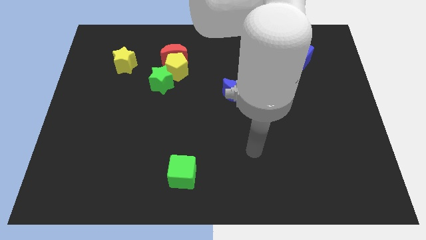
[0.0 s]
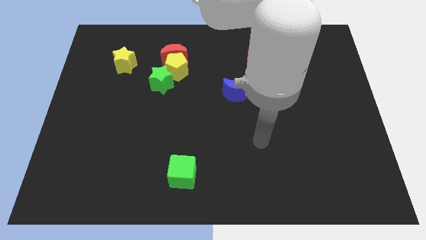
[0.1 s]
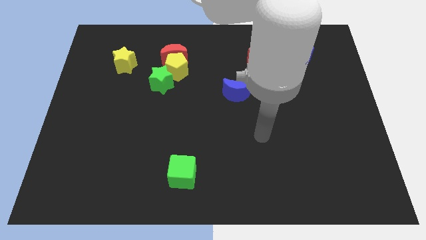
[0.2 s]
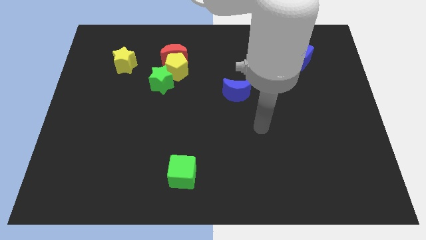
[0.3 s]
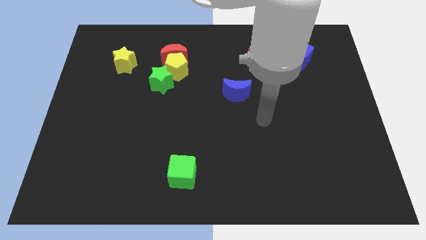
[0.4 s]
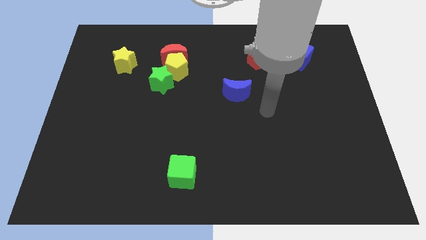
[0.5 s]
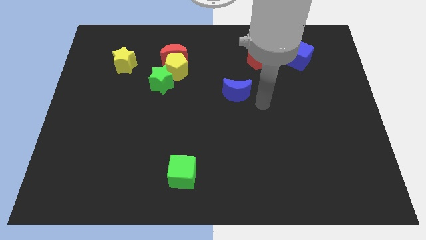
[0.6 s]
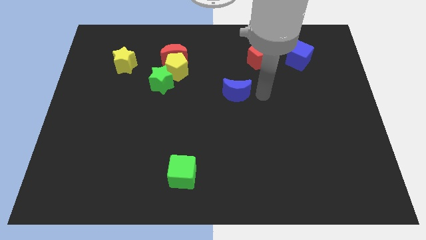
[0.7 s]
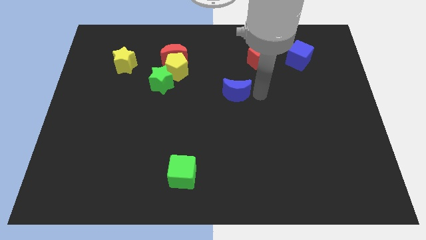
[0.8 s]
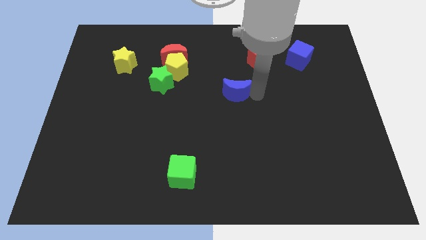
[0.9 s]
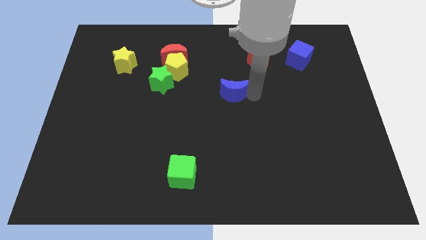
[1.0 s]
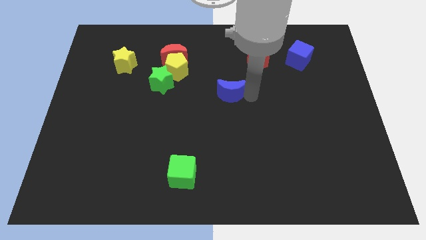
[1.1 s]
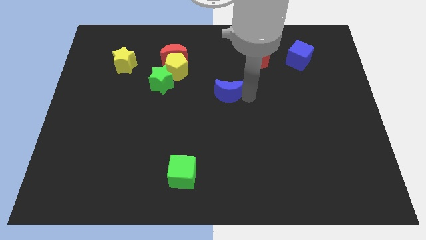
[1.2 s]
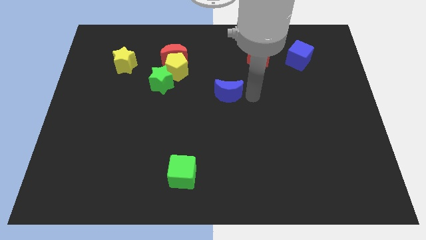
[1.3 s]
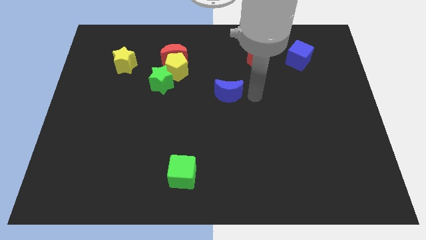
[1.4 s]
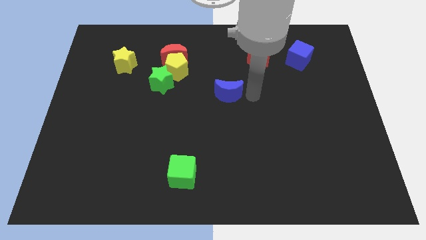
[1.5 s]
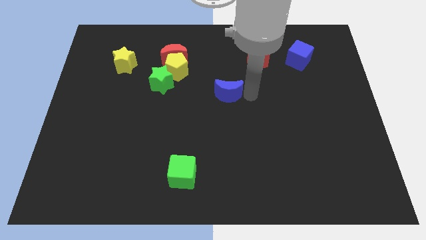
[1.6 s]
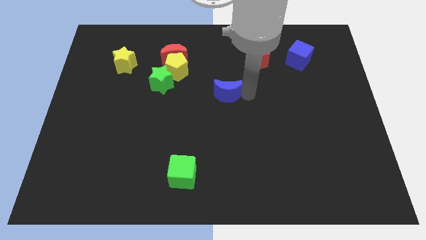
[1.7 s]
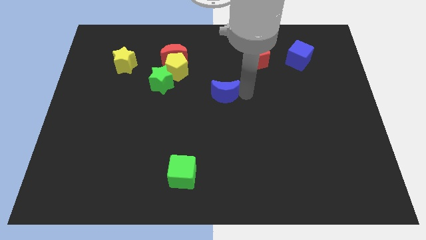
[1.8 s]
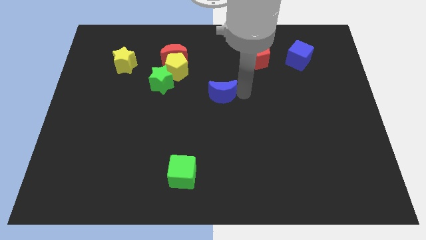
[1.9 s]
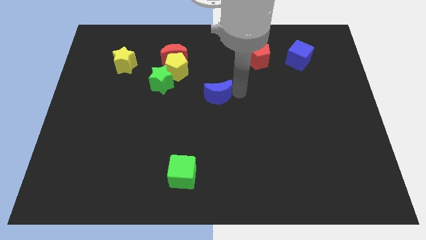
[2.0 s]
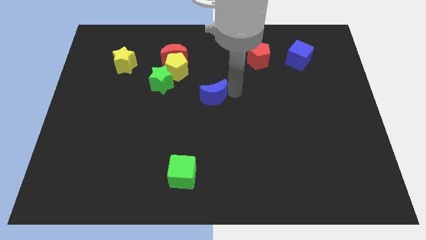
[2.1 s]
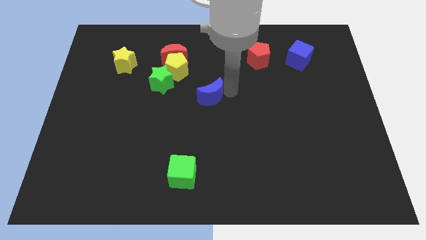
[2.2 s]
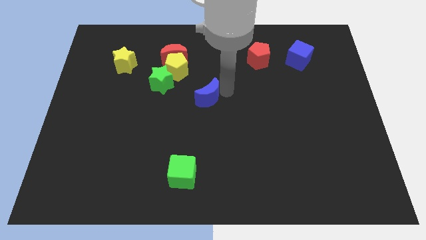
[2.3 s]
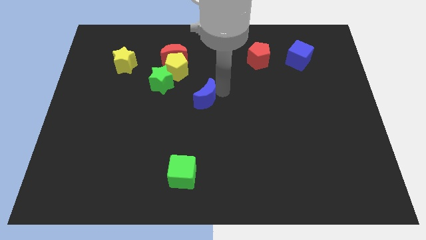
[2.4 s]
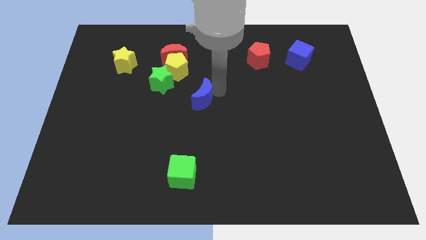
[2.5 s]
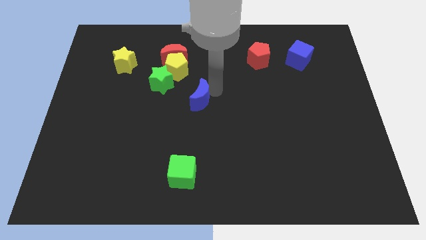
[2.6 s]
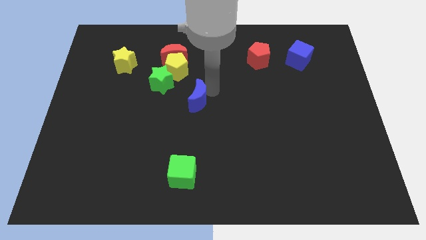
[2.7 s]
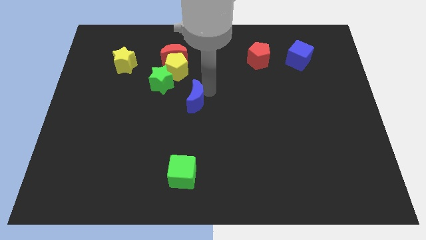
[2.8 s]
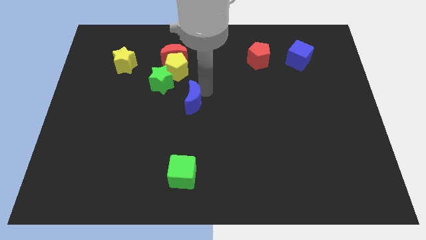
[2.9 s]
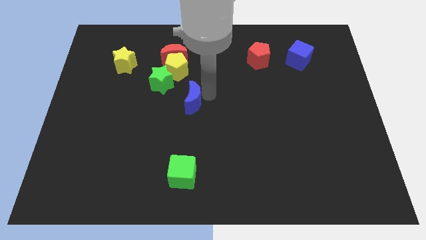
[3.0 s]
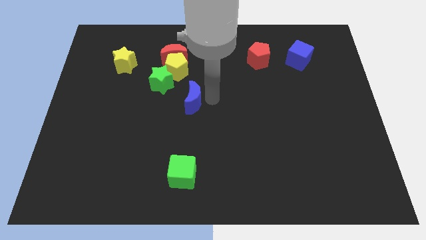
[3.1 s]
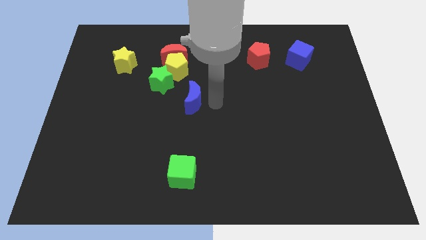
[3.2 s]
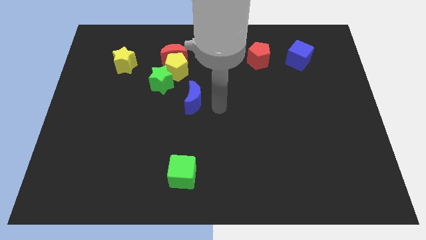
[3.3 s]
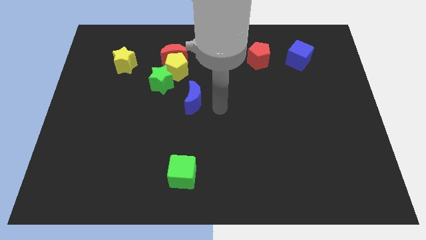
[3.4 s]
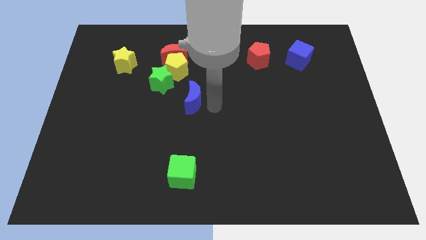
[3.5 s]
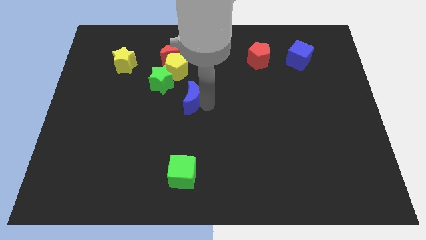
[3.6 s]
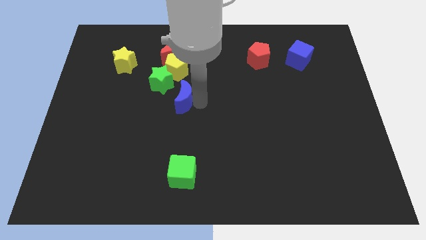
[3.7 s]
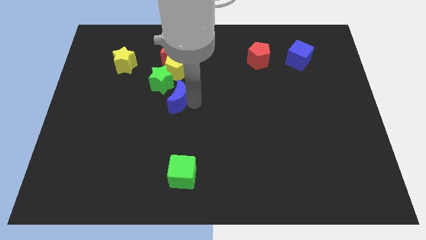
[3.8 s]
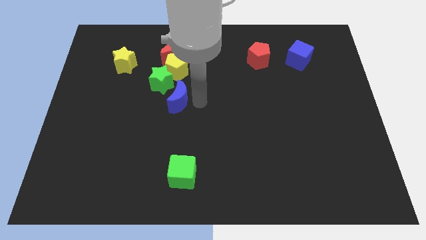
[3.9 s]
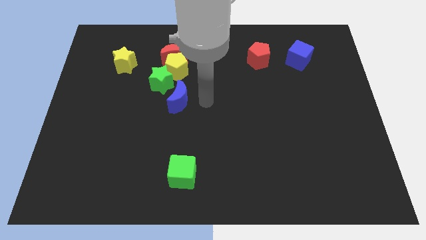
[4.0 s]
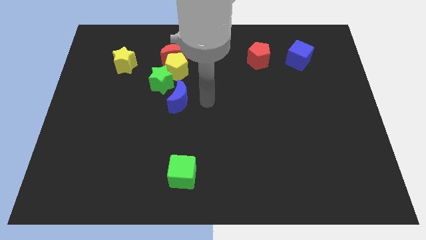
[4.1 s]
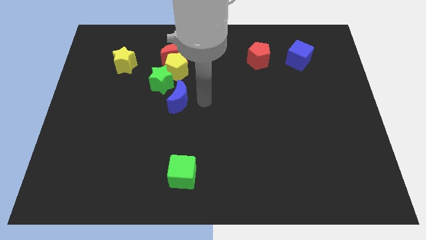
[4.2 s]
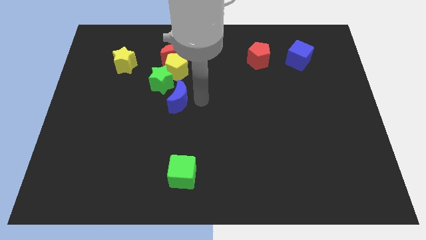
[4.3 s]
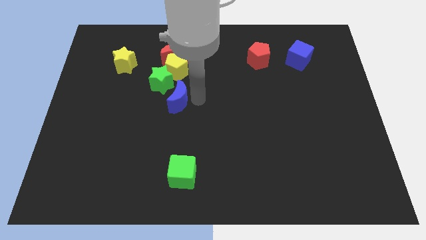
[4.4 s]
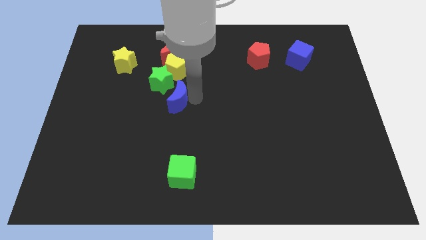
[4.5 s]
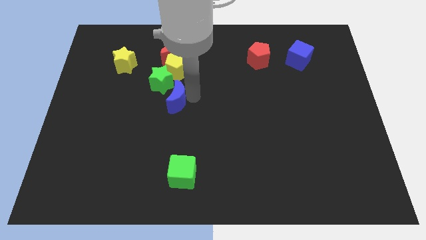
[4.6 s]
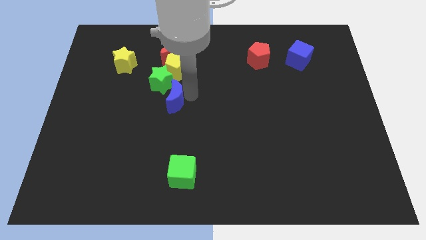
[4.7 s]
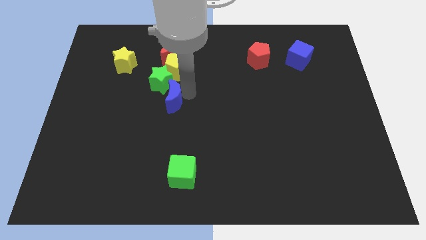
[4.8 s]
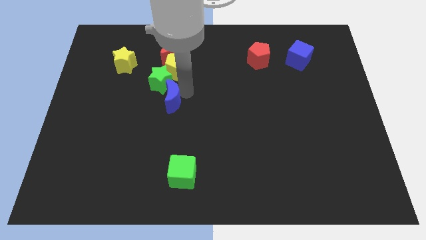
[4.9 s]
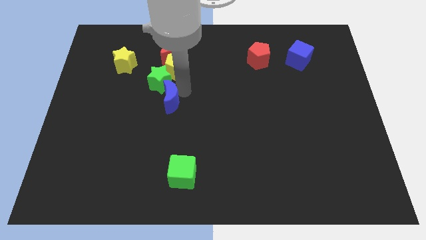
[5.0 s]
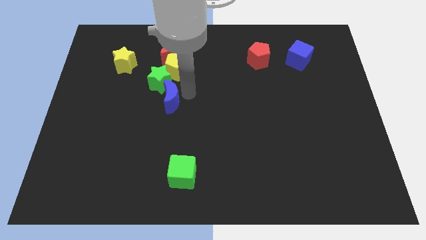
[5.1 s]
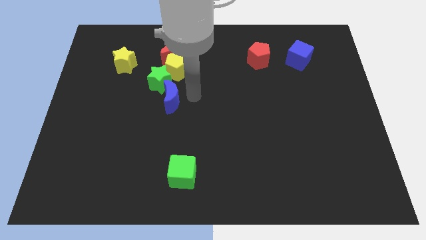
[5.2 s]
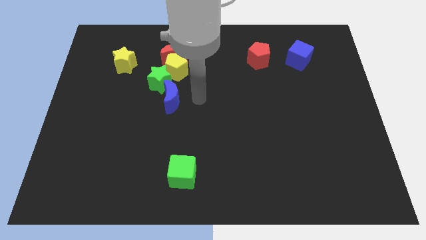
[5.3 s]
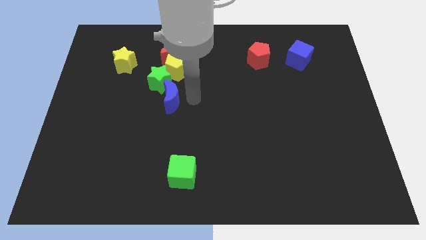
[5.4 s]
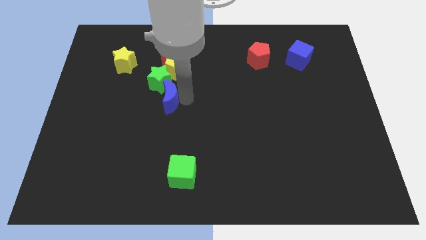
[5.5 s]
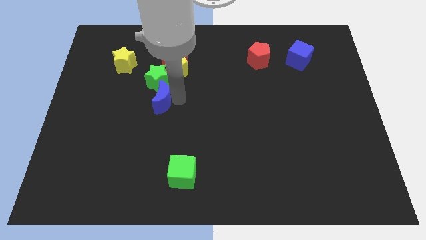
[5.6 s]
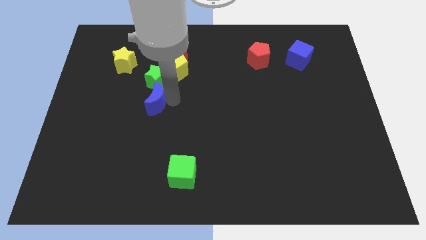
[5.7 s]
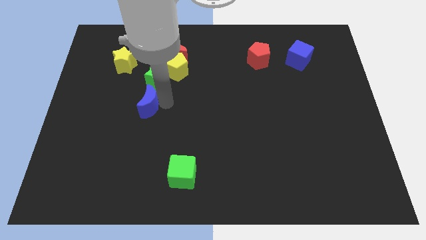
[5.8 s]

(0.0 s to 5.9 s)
slide the blue moon left

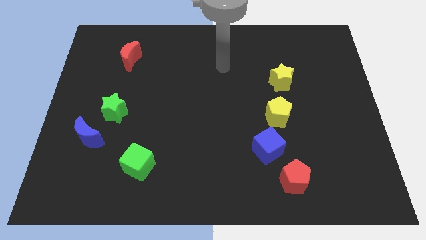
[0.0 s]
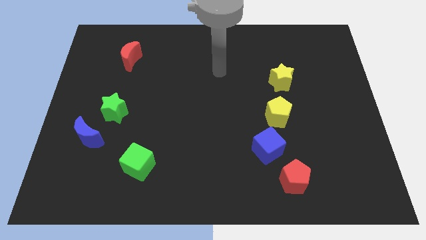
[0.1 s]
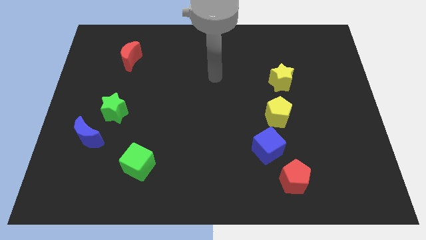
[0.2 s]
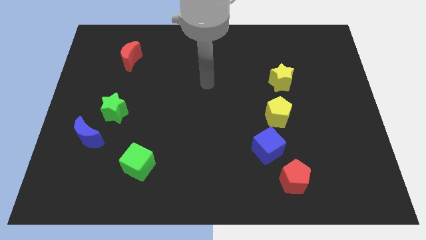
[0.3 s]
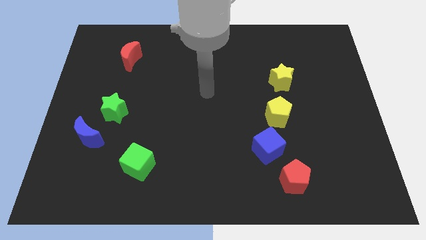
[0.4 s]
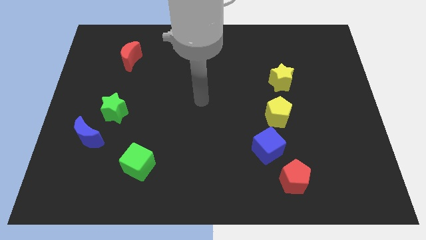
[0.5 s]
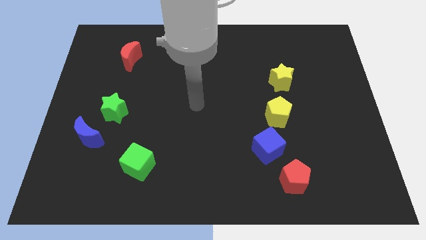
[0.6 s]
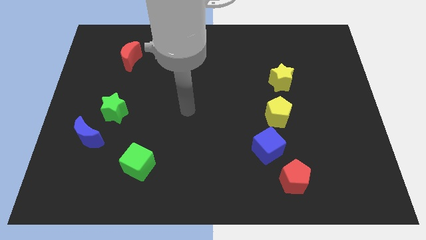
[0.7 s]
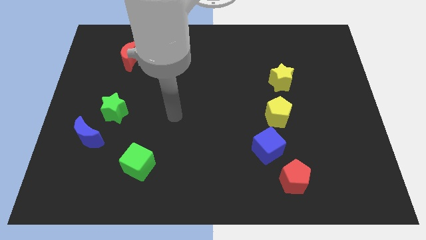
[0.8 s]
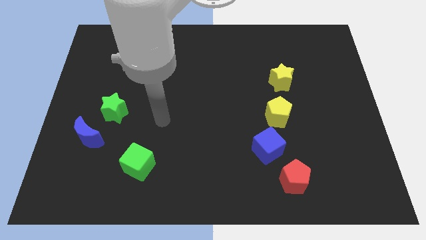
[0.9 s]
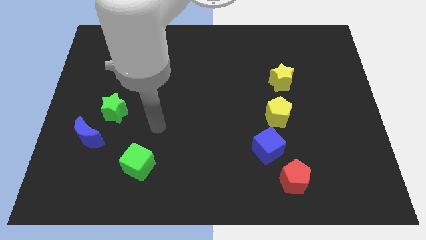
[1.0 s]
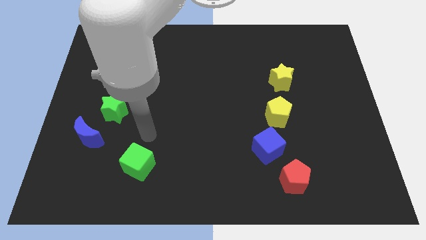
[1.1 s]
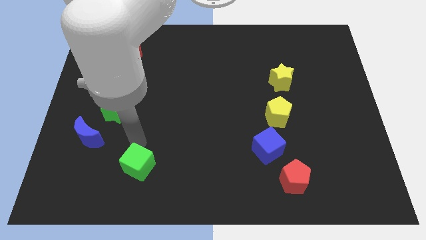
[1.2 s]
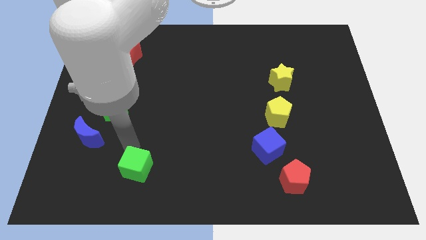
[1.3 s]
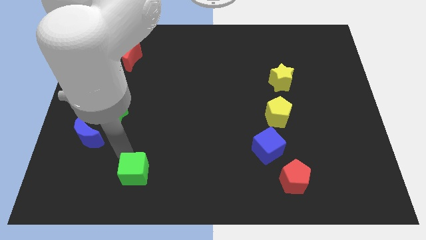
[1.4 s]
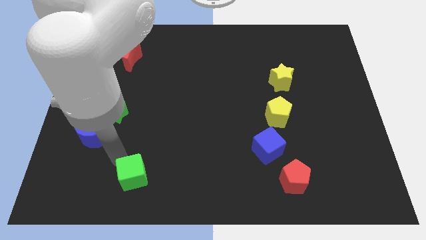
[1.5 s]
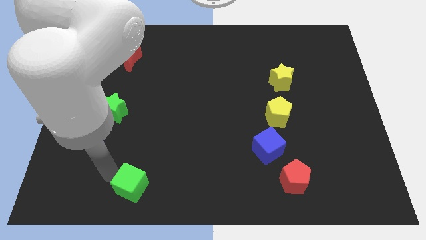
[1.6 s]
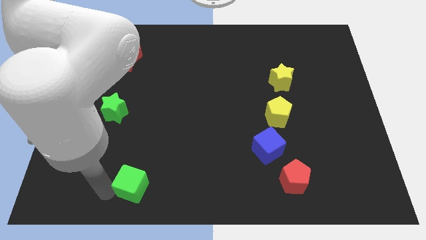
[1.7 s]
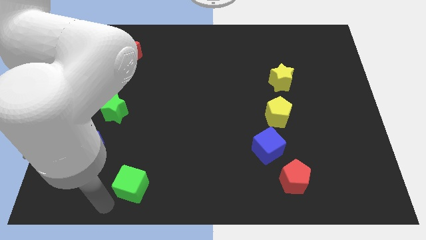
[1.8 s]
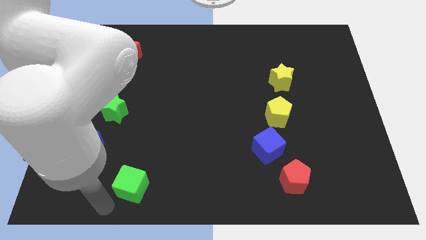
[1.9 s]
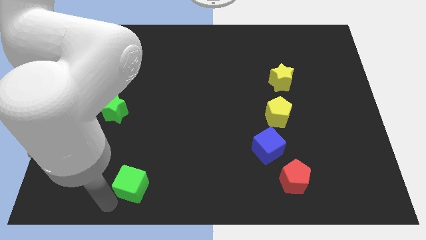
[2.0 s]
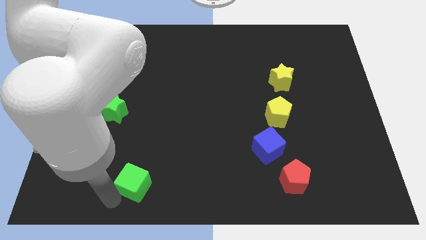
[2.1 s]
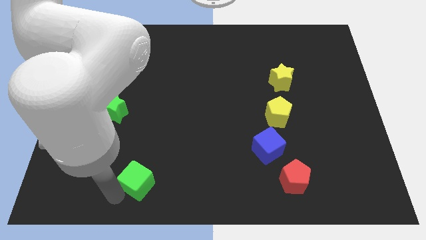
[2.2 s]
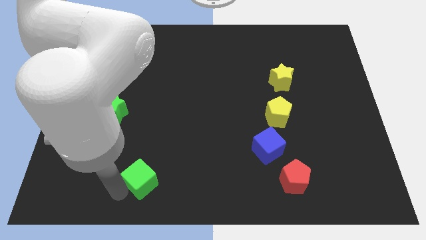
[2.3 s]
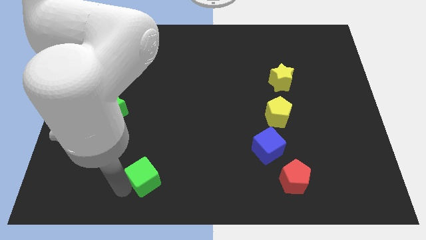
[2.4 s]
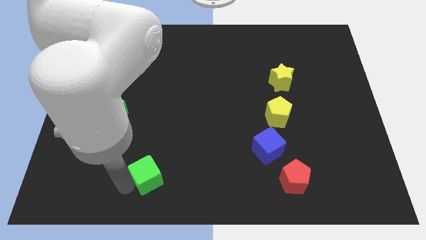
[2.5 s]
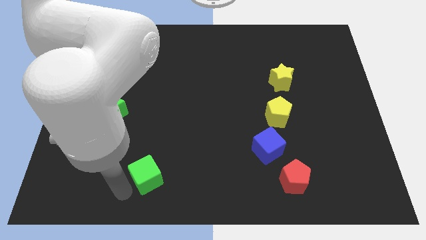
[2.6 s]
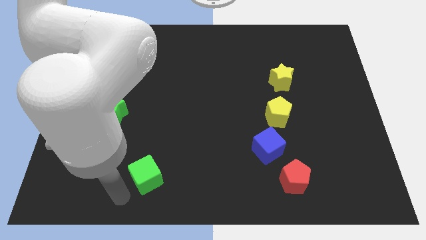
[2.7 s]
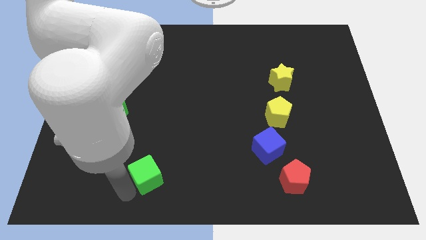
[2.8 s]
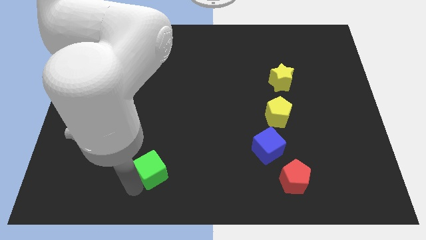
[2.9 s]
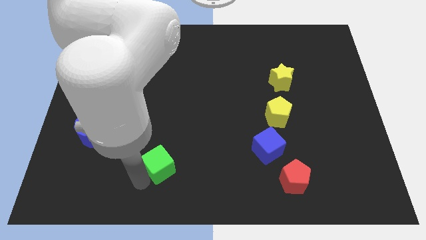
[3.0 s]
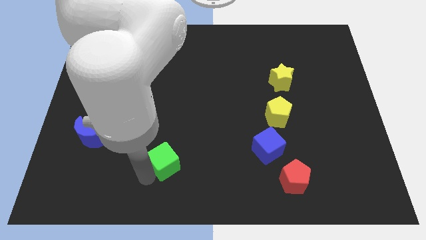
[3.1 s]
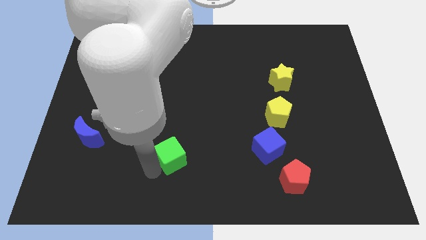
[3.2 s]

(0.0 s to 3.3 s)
slightly move the green cube right
